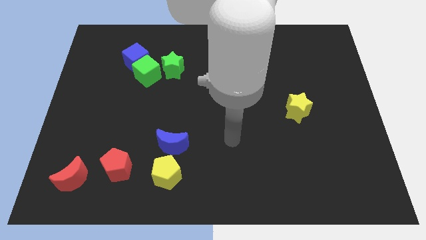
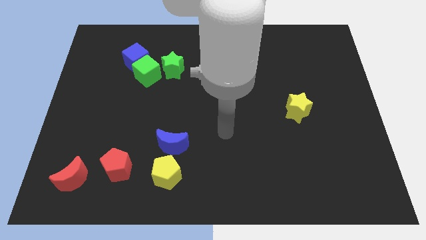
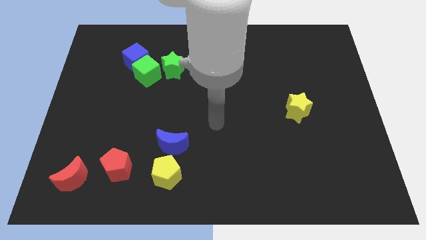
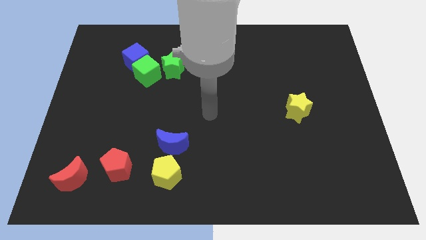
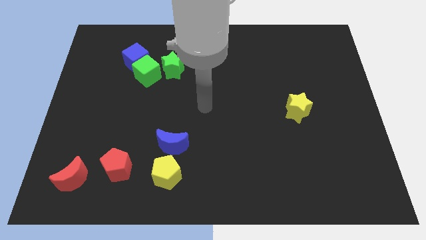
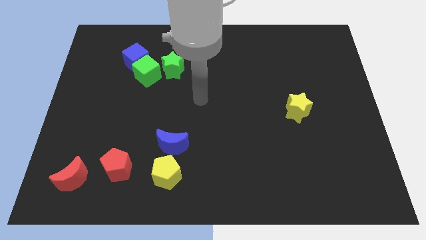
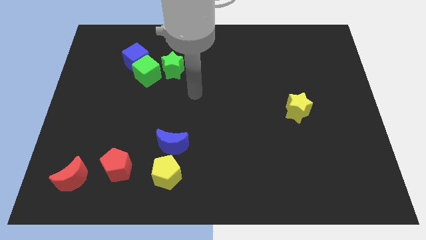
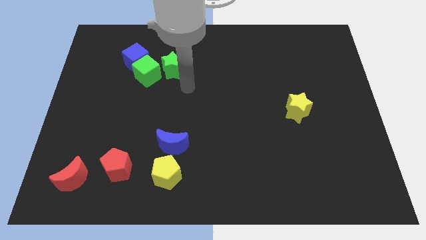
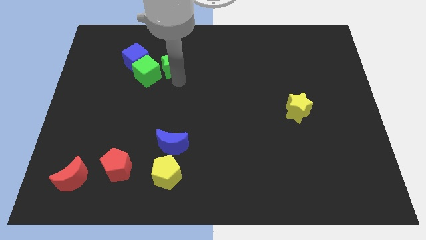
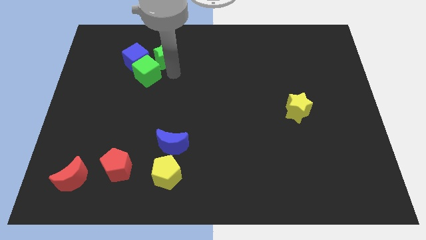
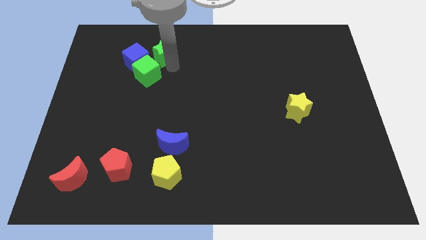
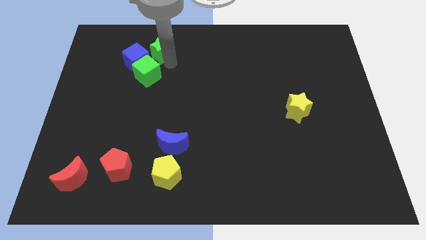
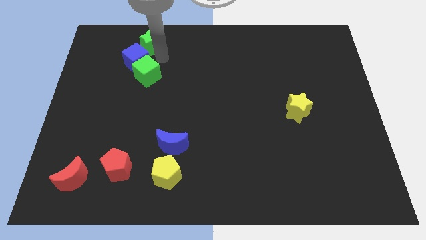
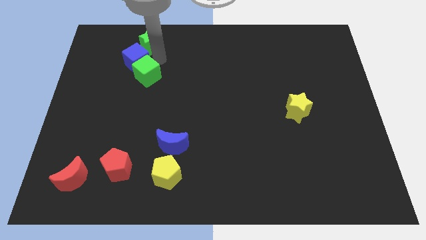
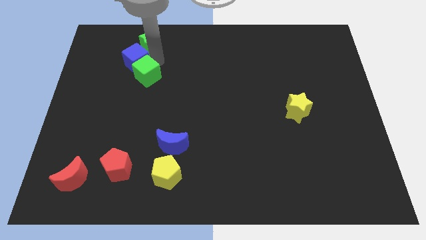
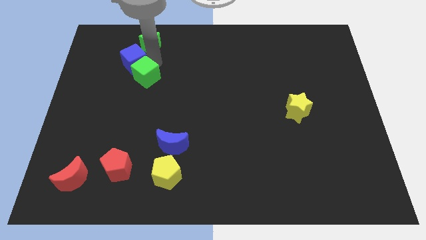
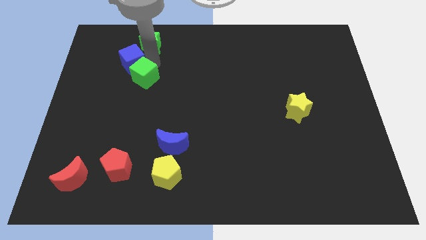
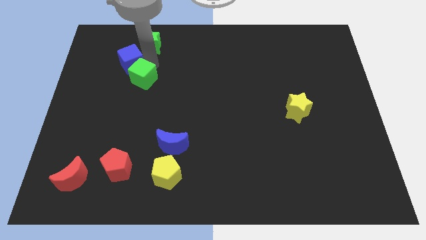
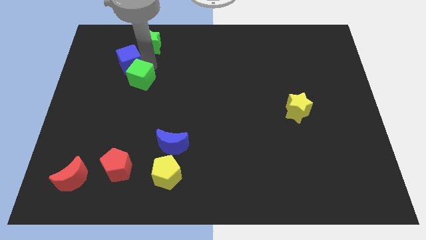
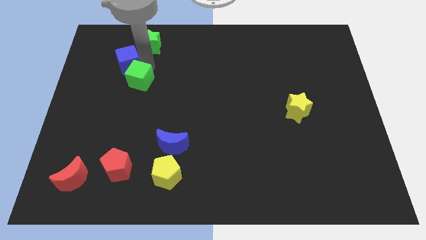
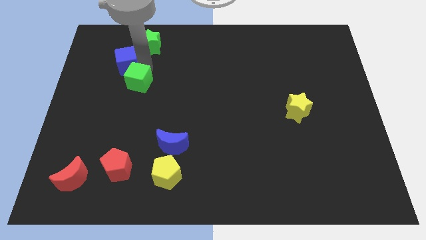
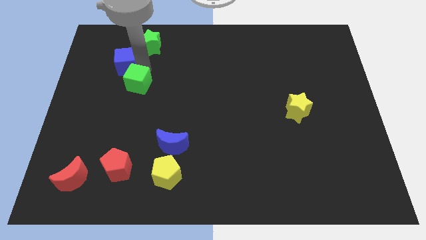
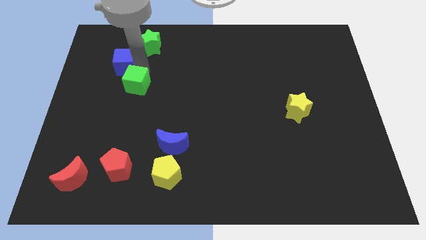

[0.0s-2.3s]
separate the green cube from the blue cube and green star

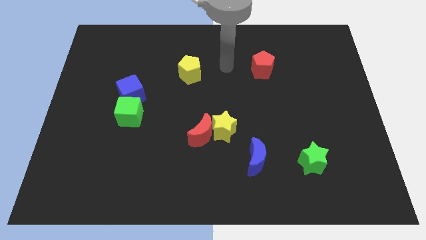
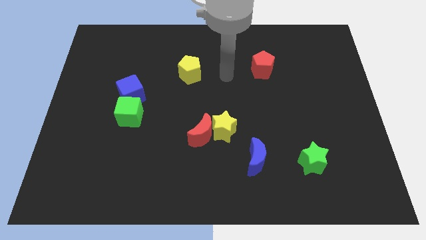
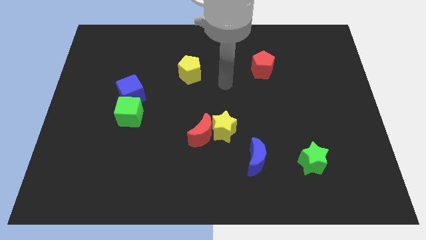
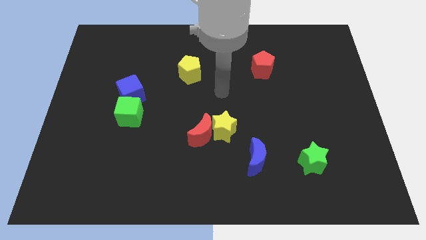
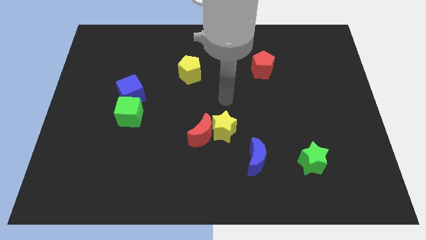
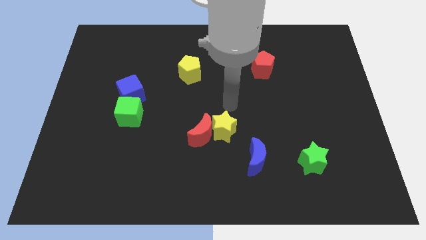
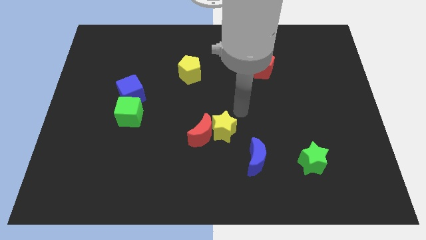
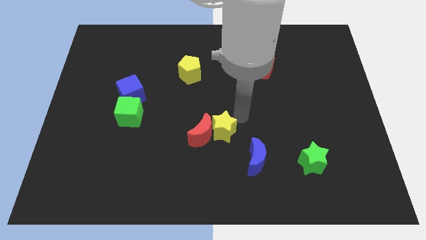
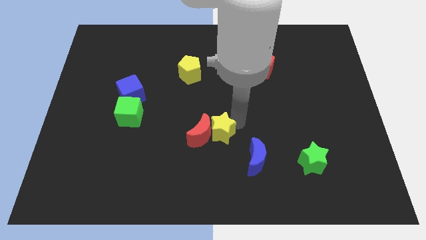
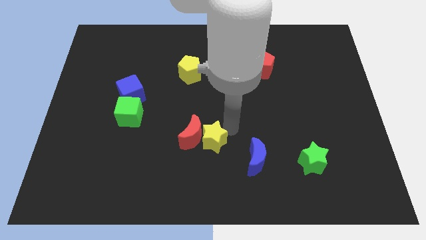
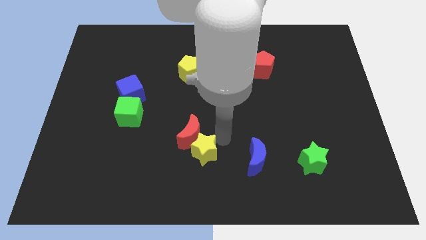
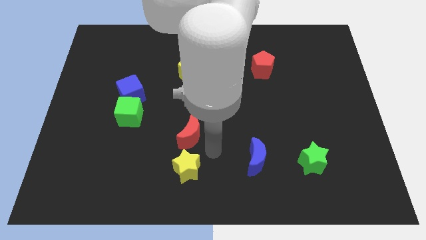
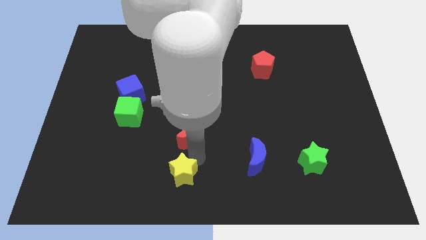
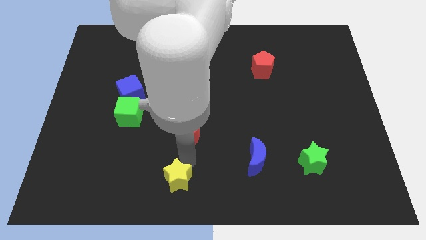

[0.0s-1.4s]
separate the red moon from the yellow star

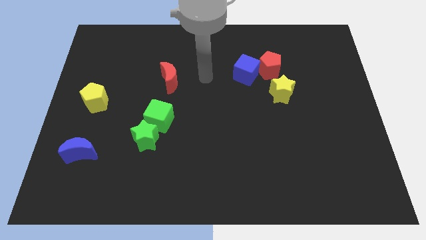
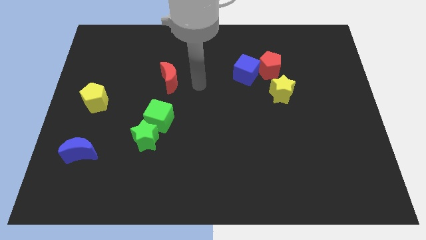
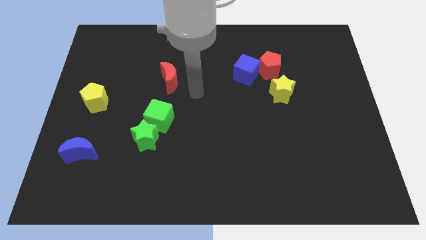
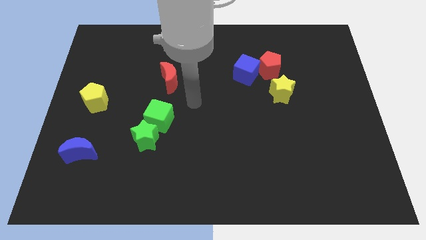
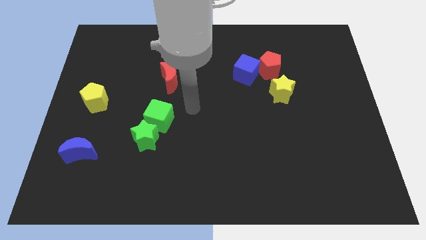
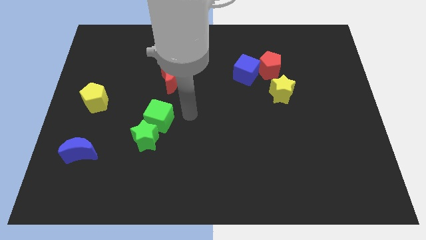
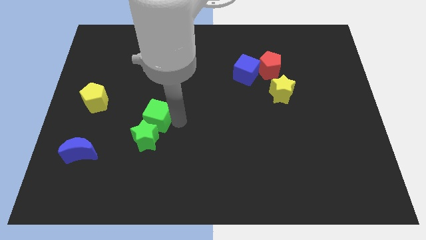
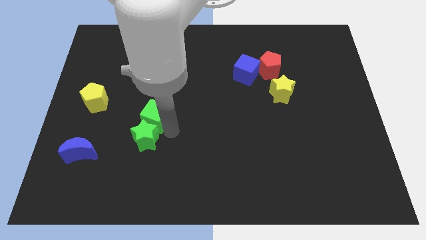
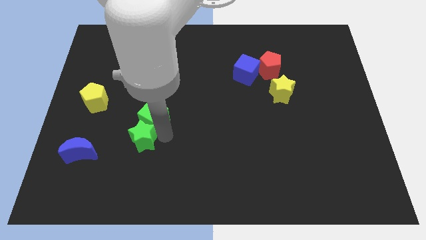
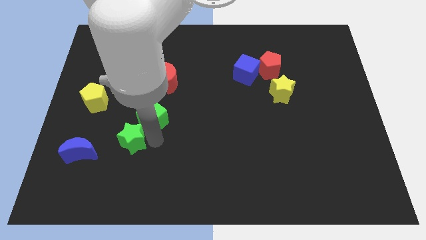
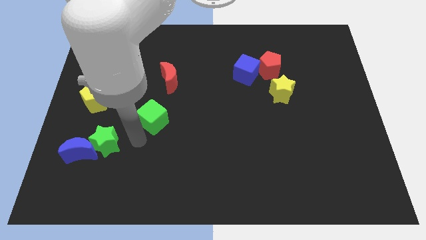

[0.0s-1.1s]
pull the green cube apart from the green star

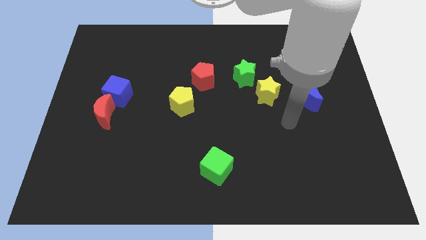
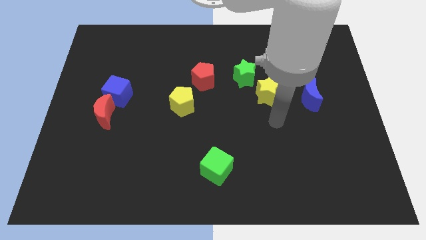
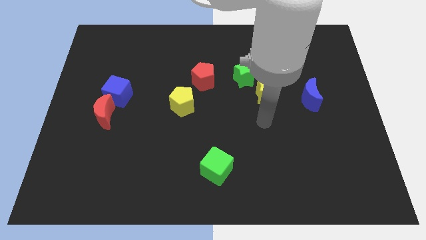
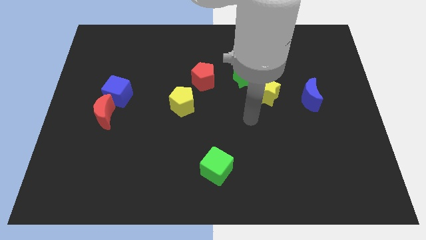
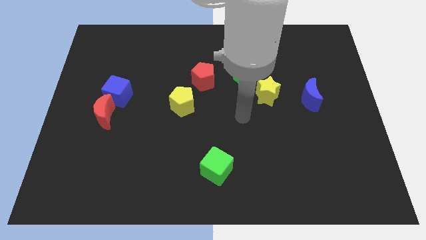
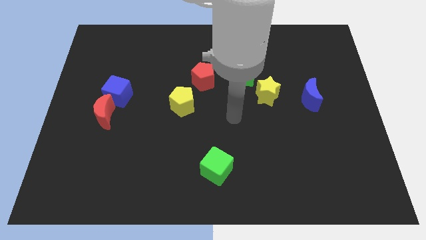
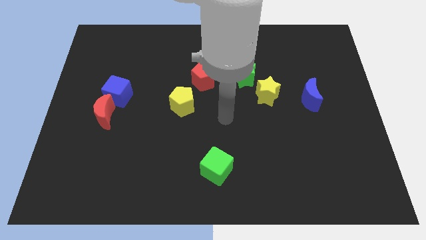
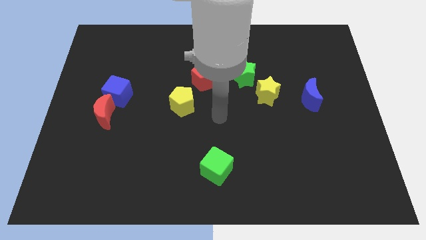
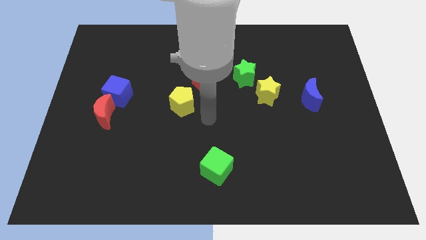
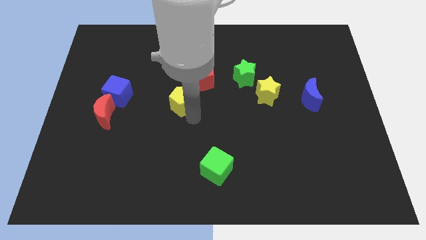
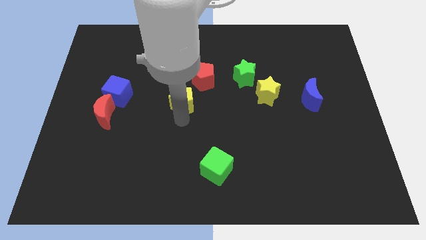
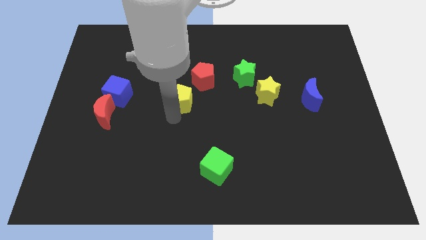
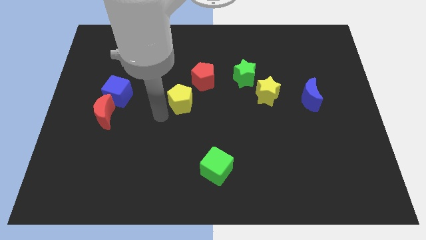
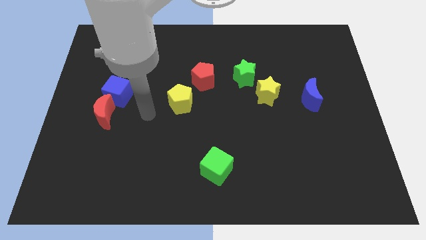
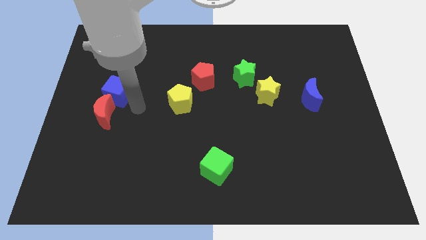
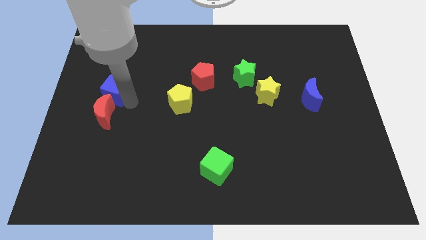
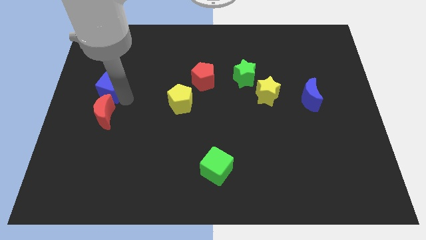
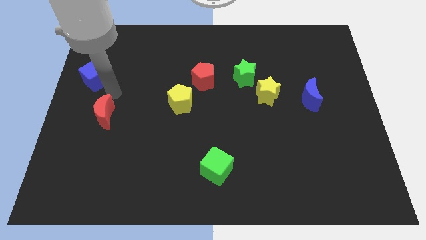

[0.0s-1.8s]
pull the red moon apart from the blue cube

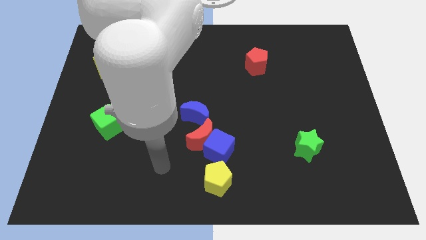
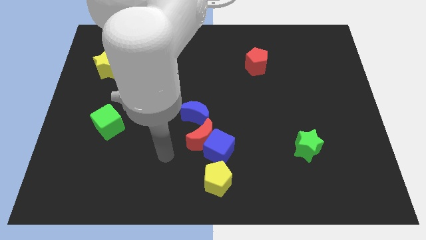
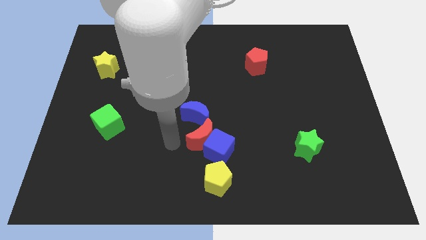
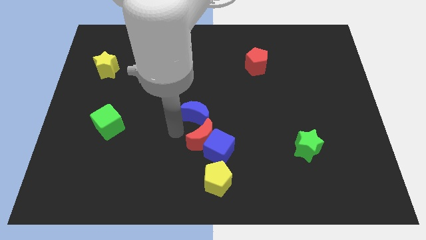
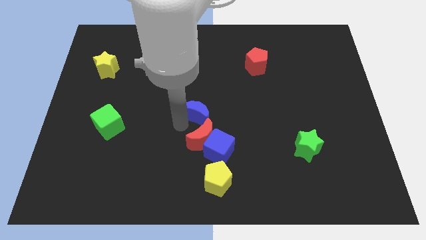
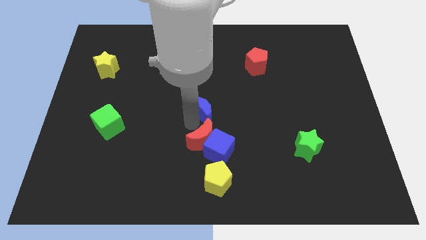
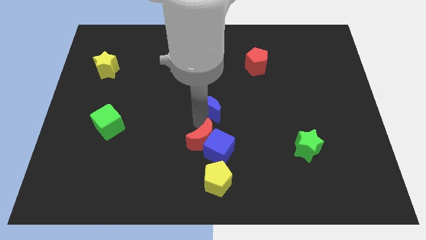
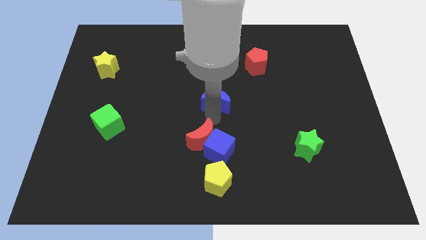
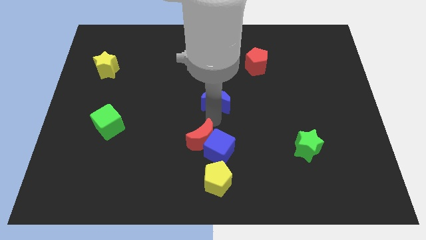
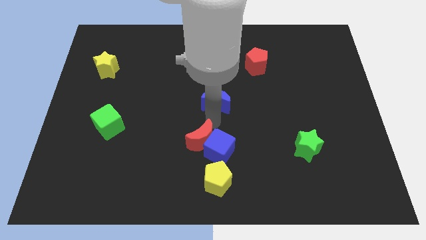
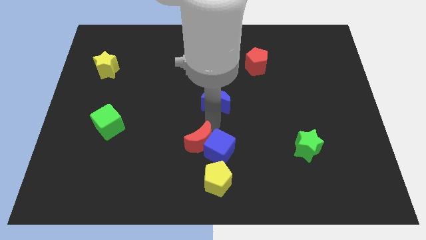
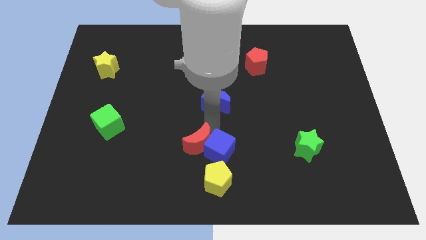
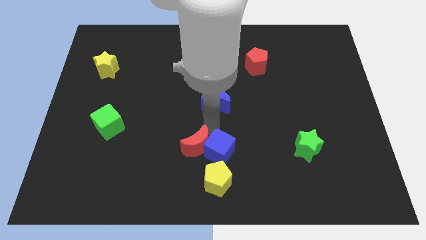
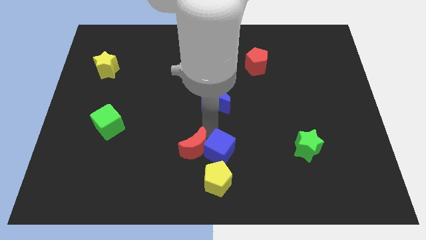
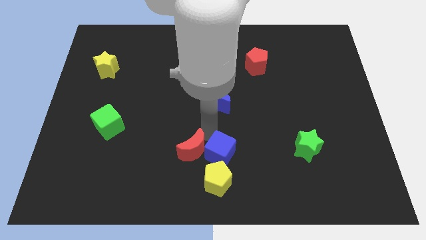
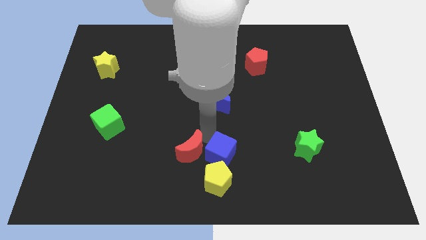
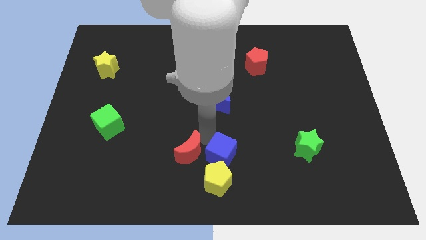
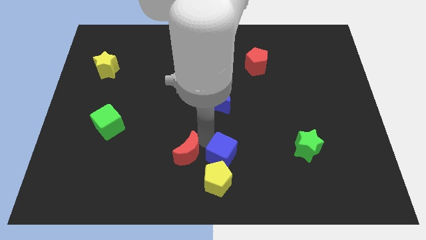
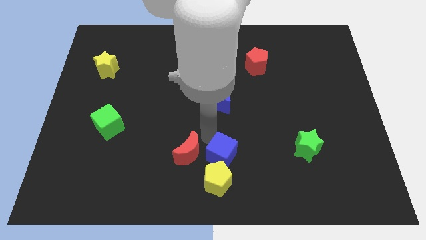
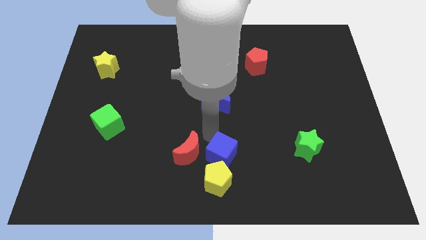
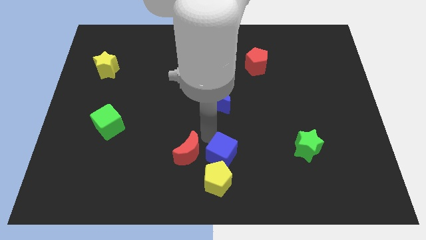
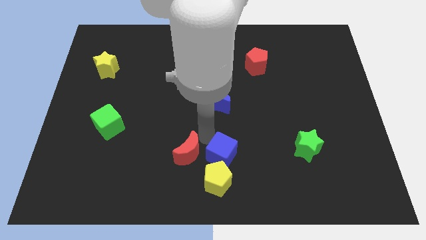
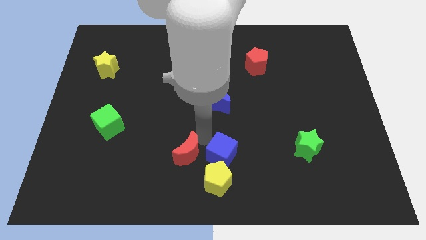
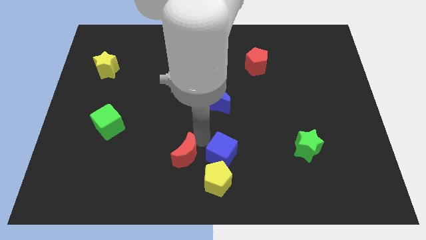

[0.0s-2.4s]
separate the red moon from the blue cube and blue moon

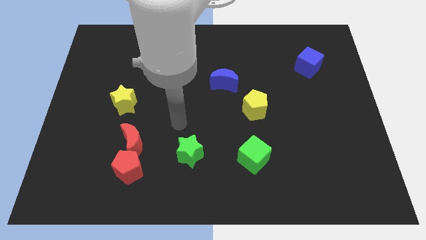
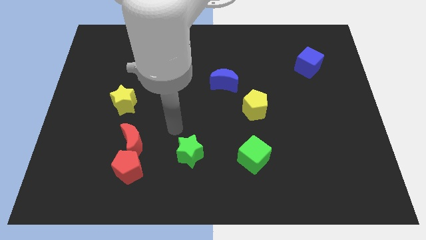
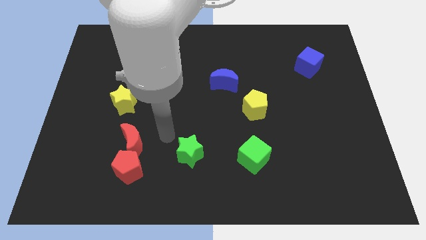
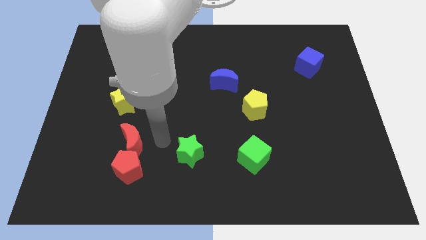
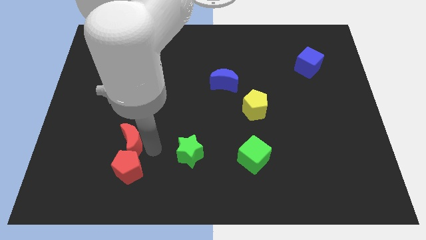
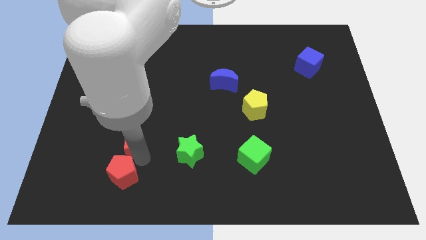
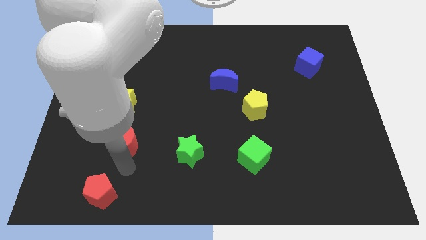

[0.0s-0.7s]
separate the red moon from the red pentagon
